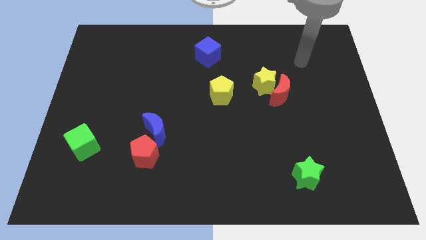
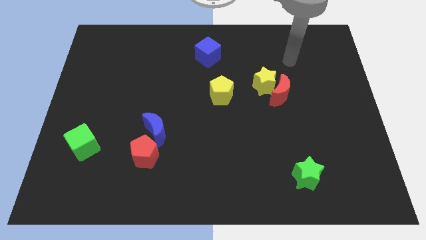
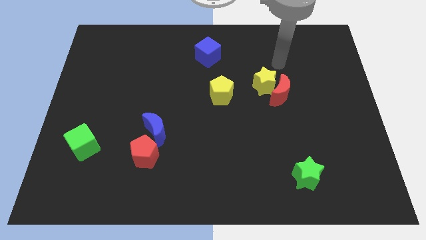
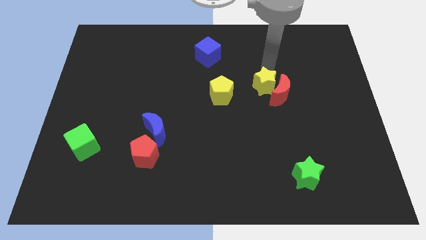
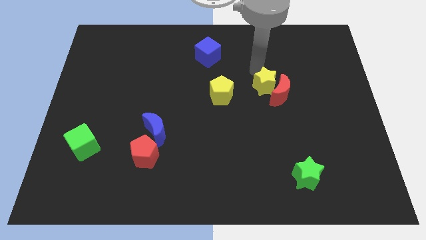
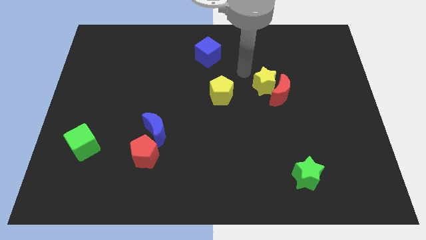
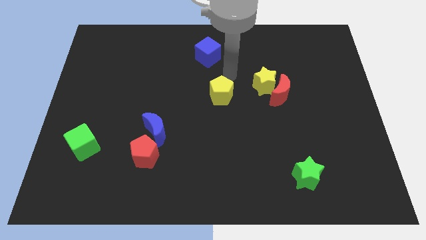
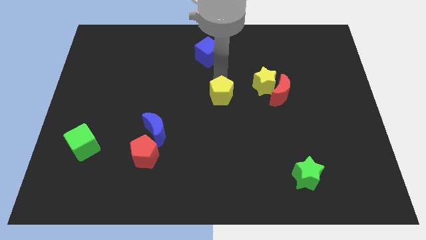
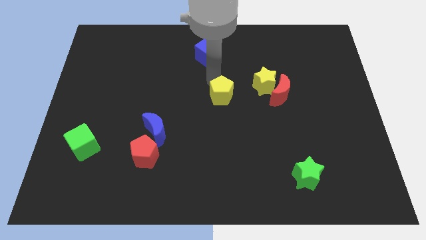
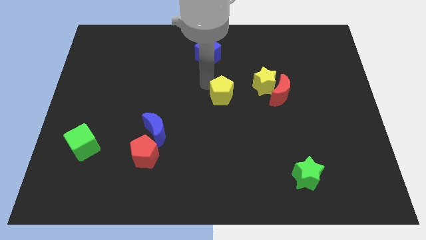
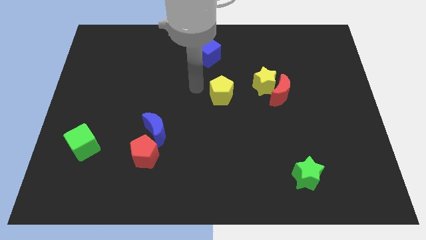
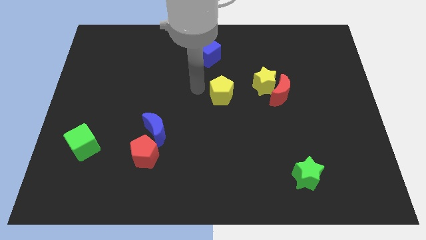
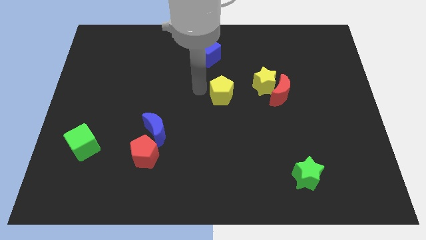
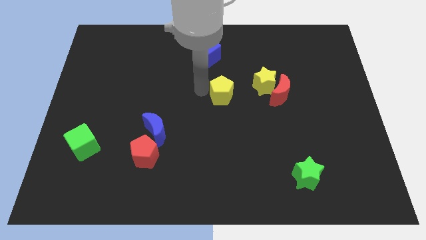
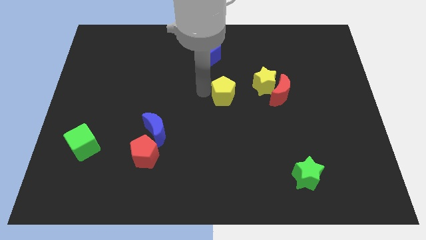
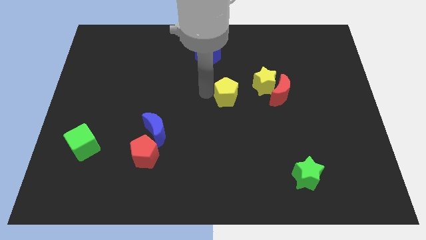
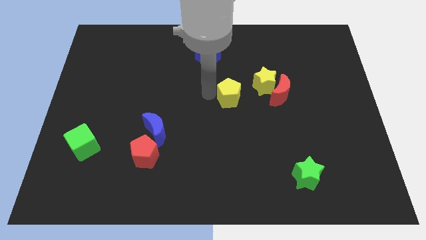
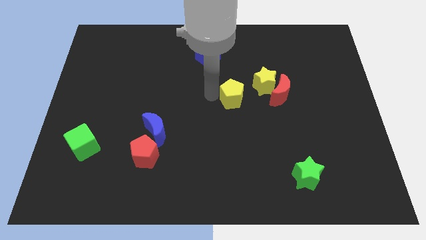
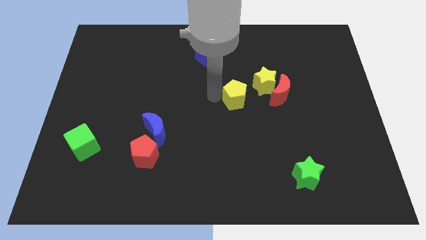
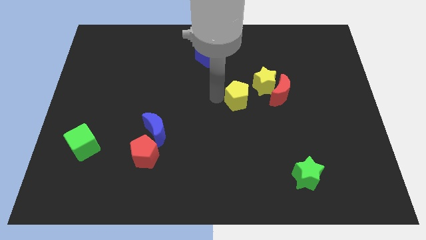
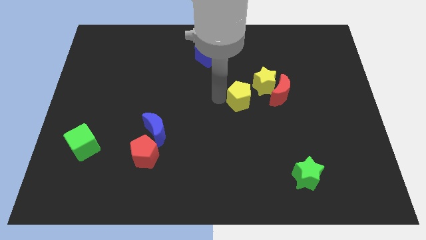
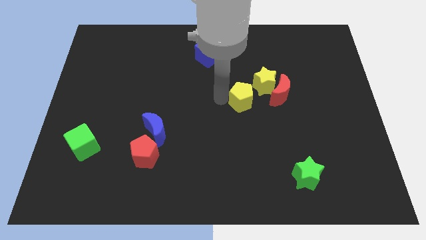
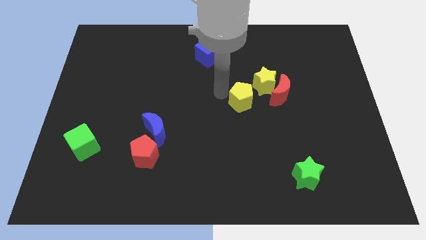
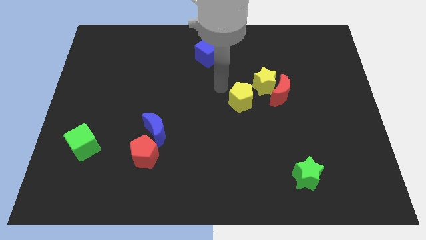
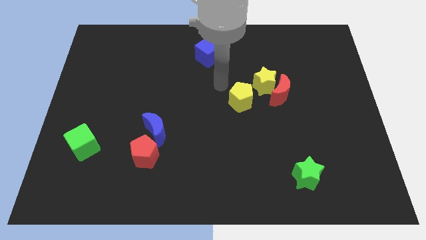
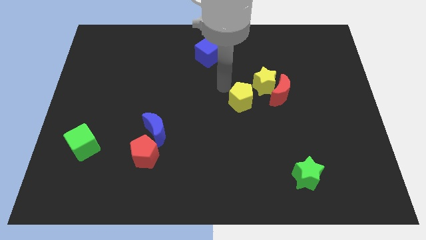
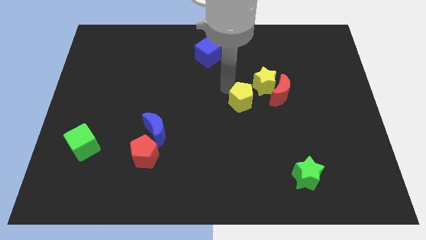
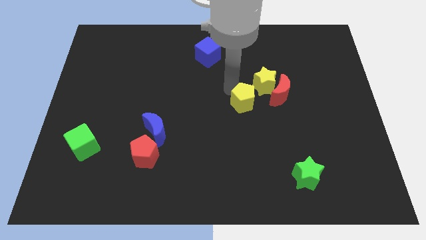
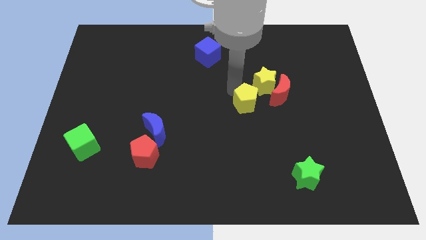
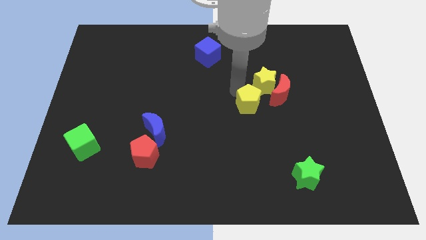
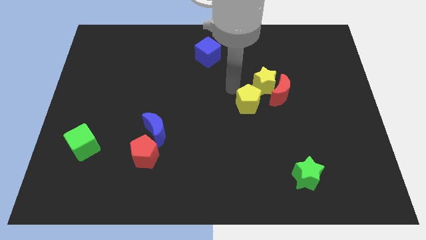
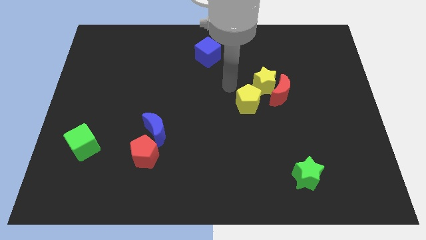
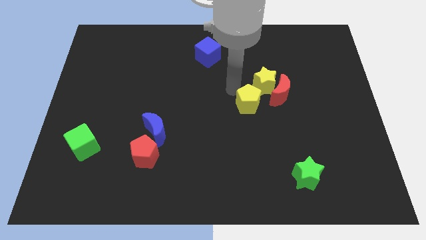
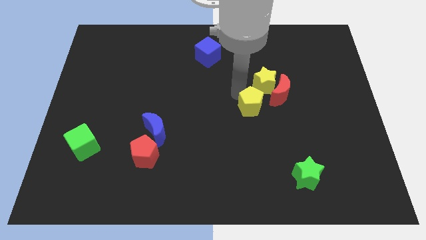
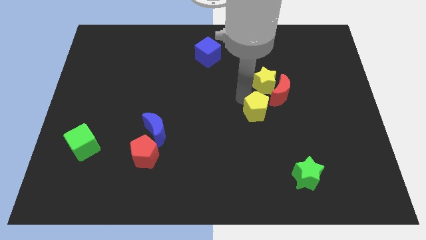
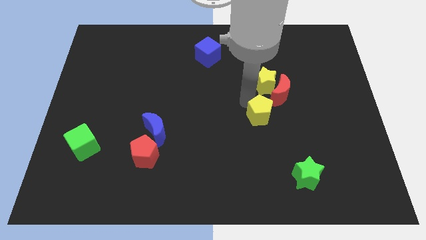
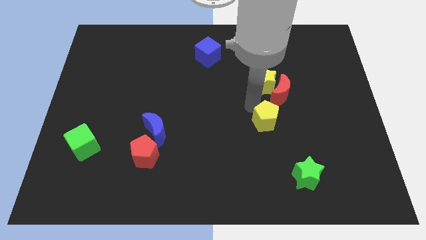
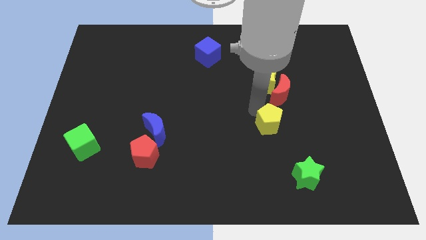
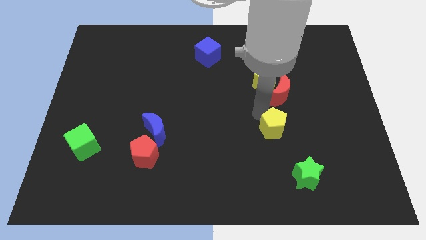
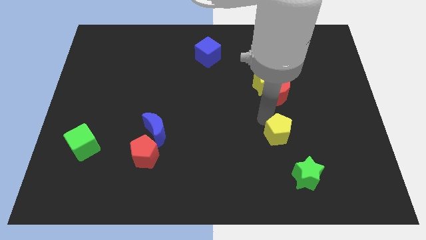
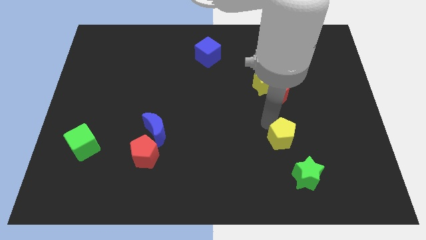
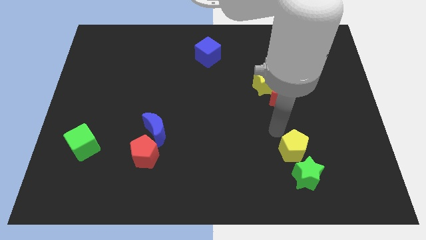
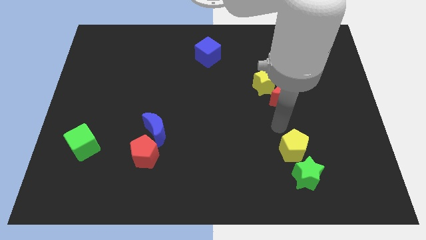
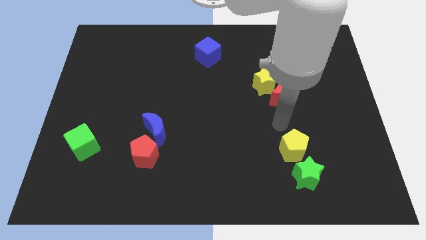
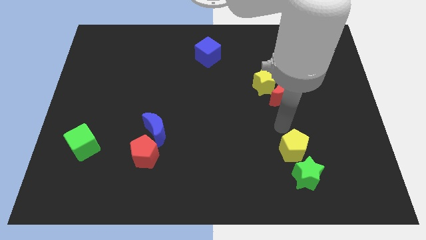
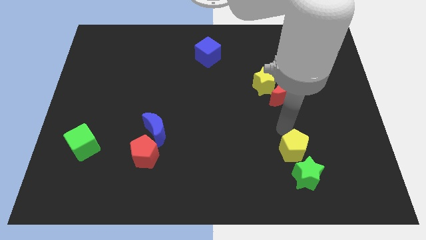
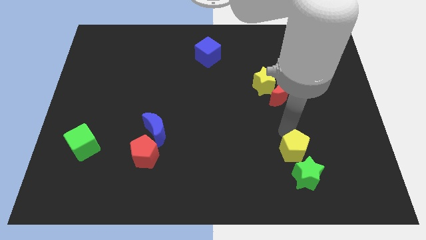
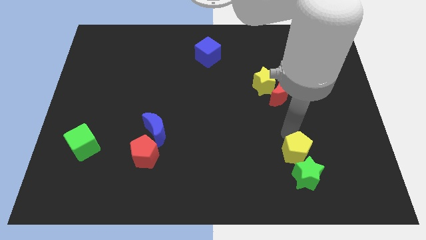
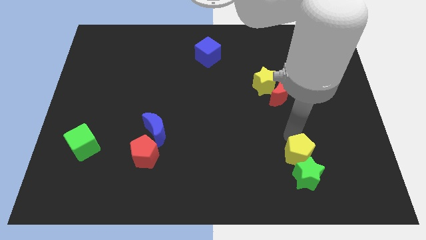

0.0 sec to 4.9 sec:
push the yellow pentagon next to the green star

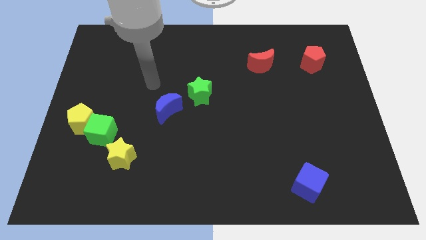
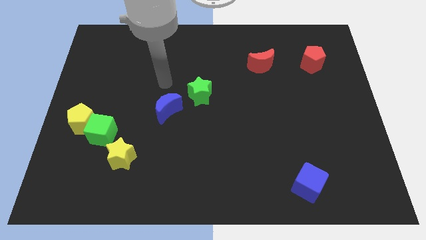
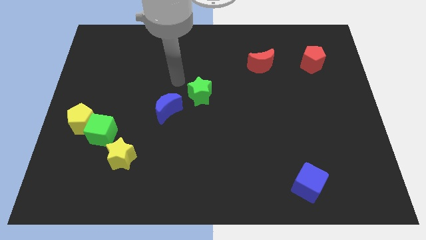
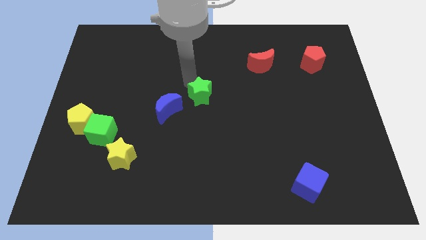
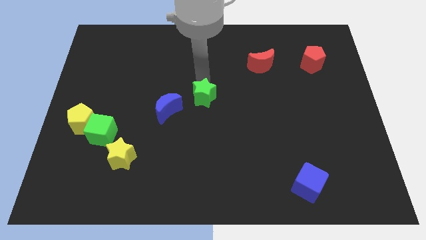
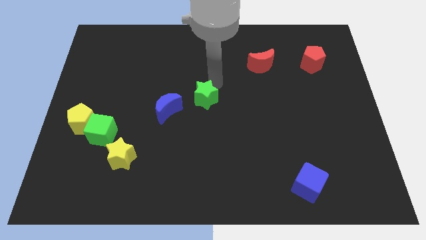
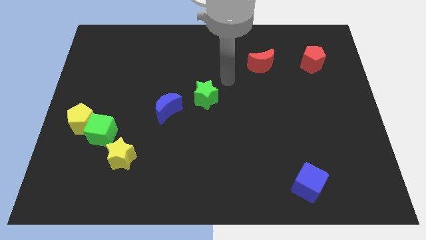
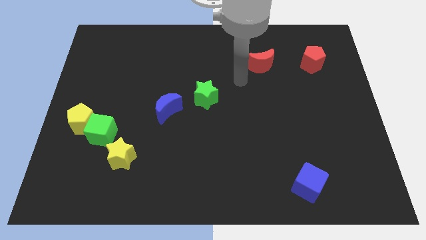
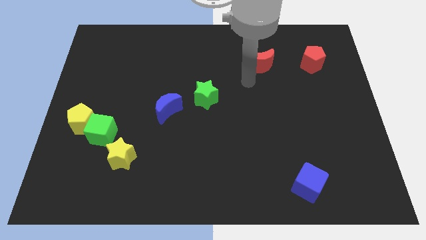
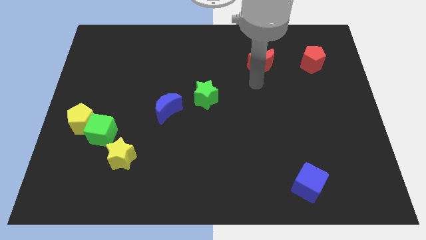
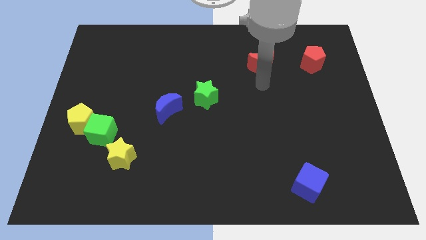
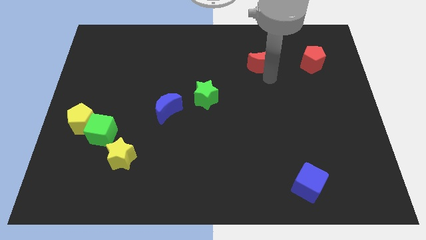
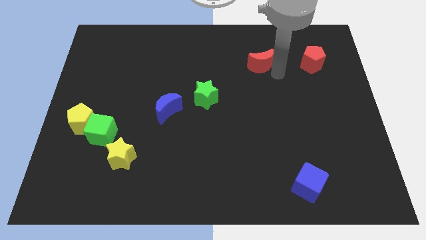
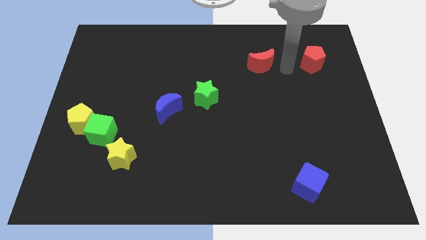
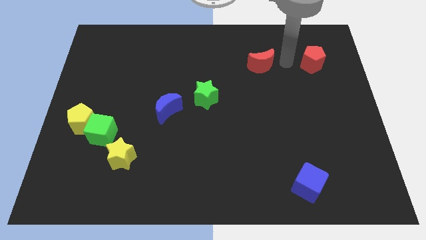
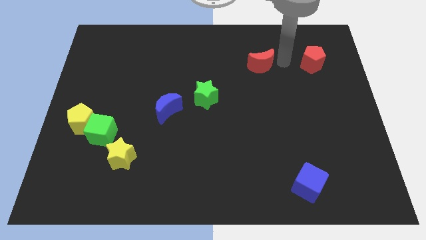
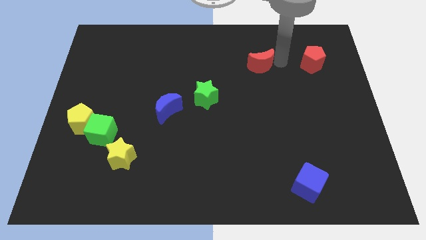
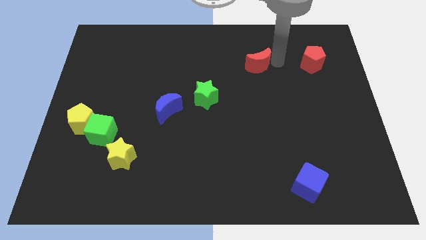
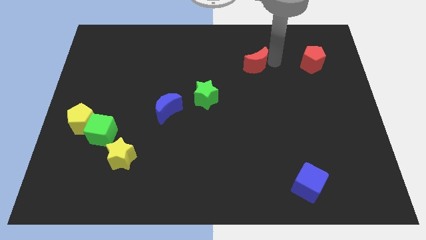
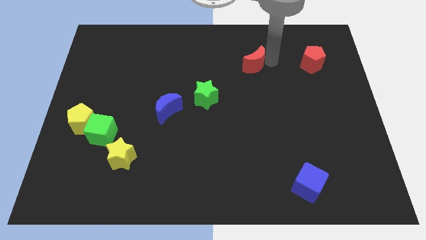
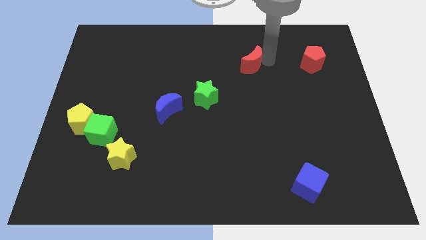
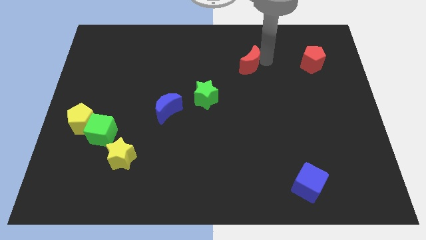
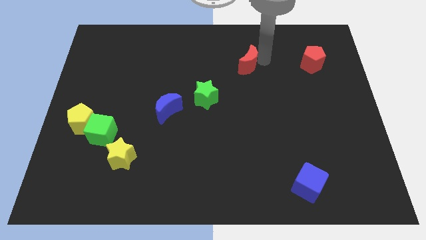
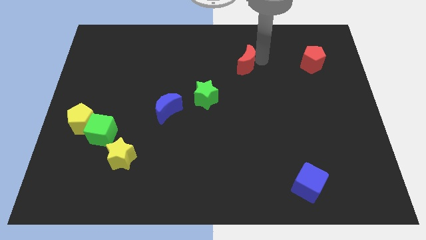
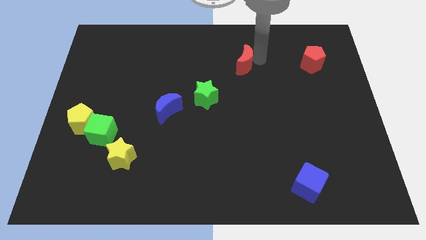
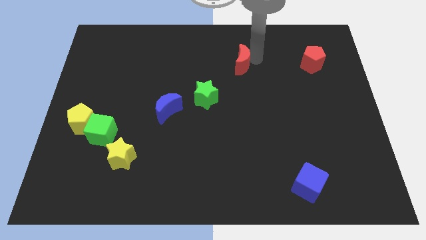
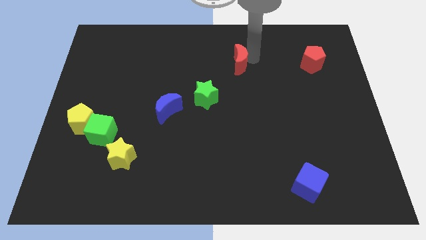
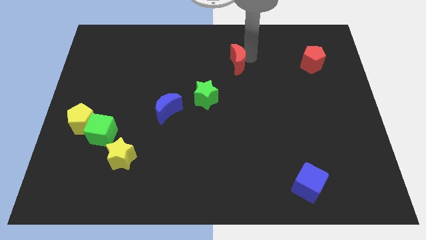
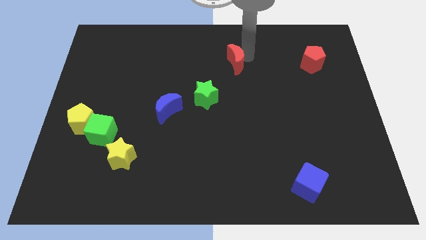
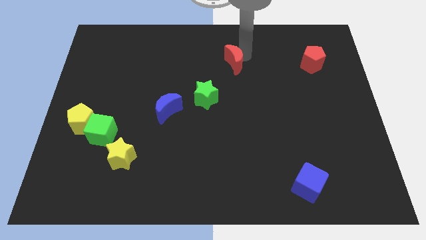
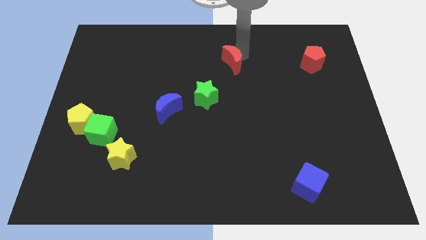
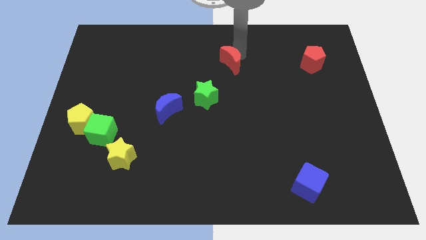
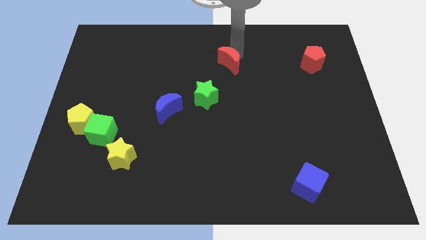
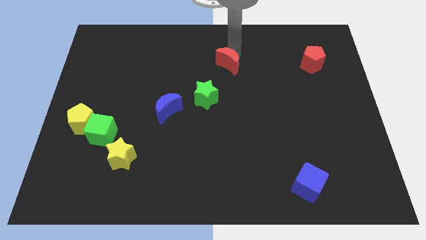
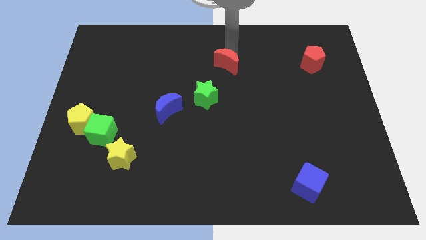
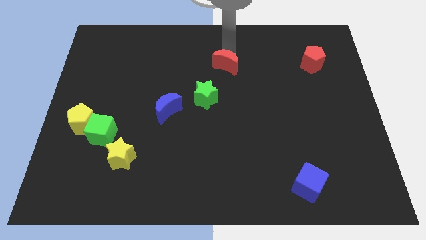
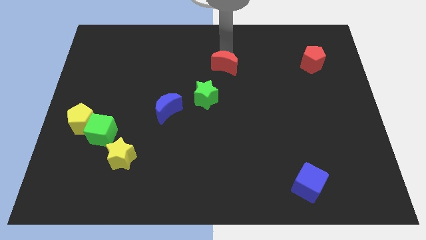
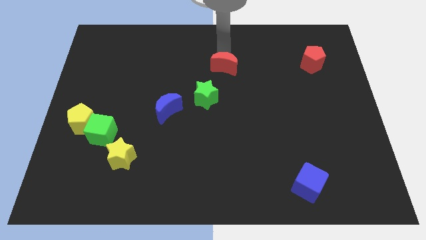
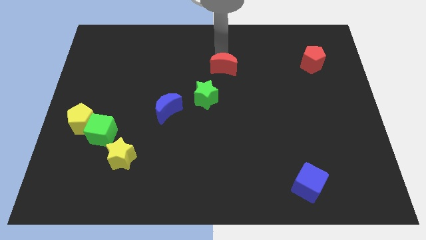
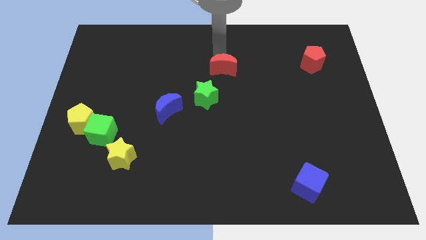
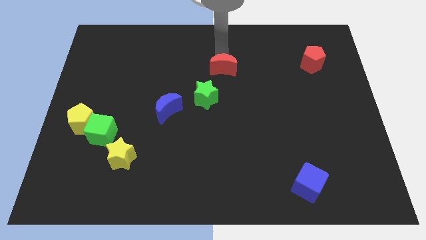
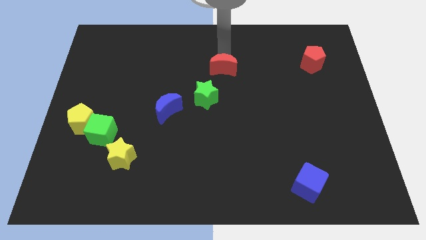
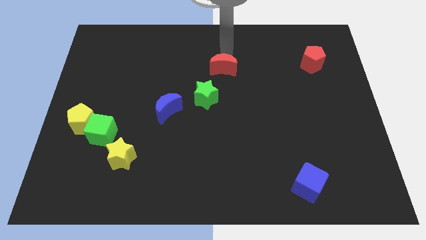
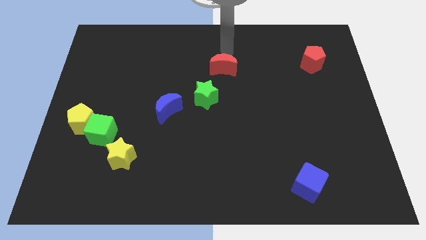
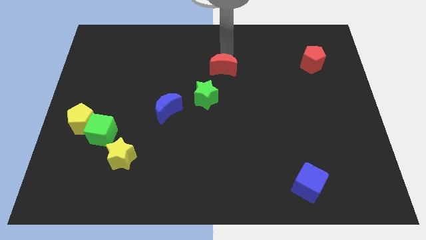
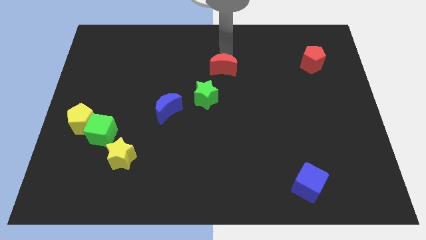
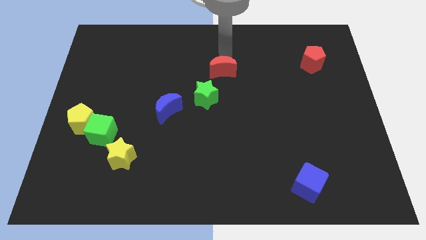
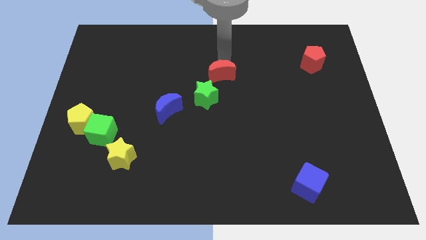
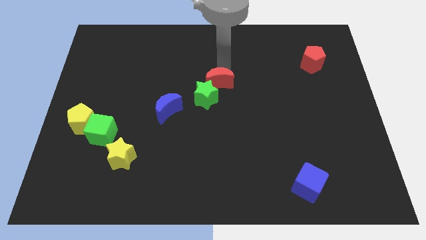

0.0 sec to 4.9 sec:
move the red moon close to the green star
